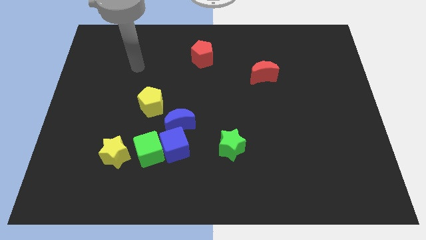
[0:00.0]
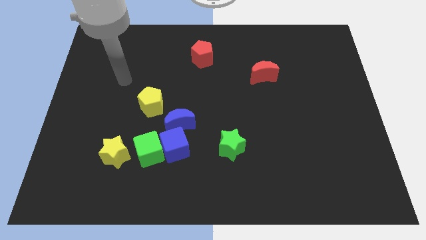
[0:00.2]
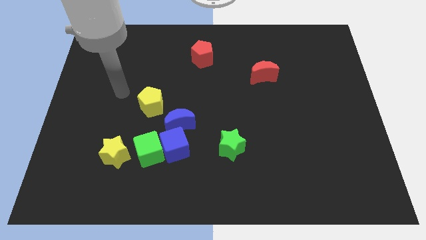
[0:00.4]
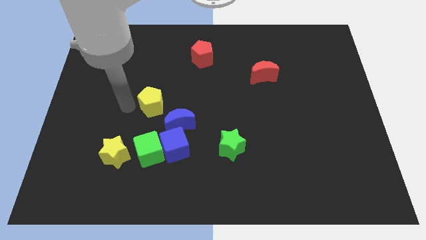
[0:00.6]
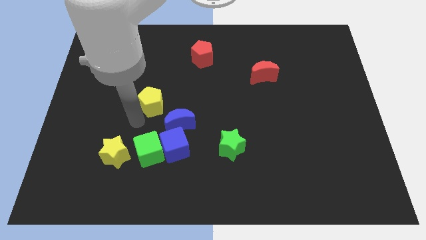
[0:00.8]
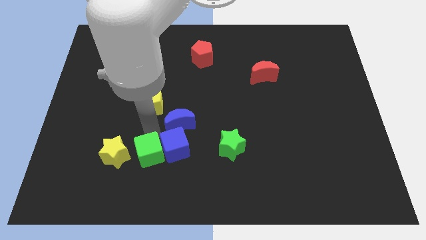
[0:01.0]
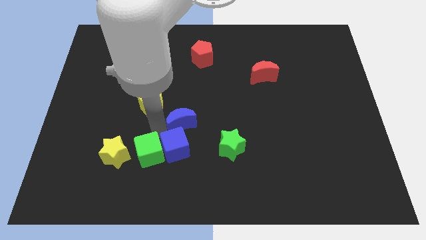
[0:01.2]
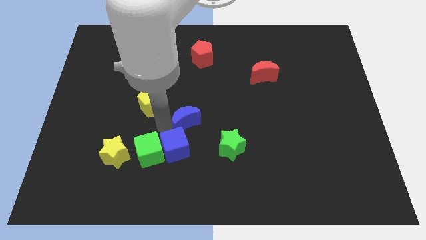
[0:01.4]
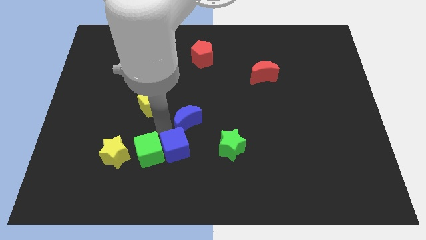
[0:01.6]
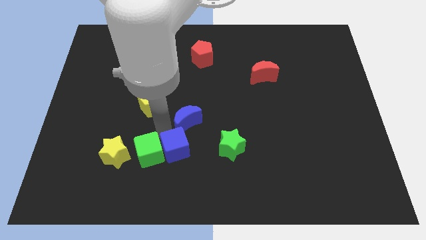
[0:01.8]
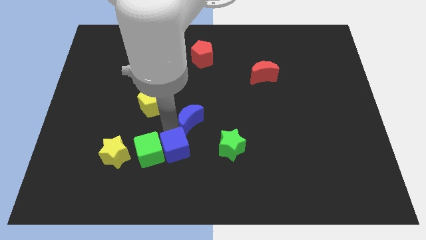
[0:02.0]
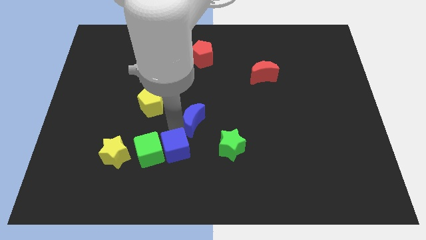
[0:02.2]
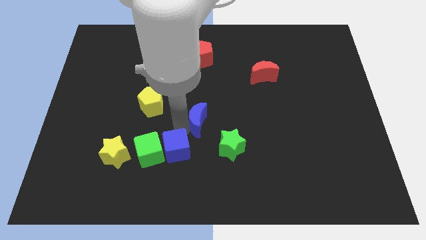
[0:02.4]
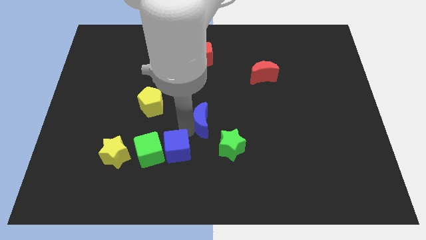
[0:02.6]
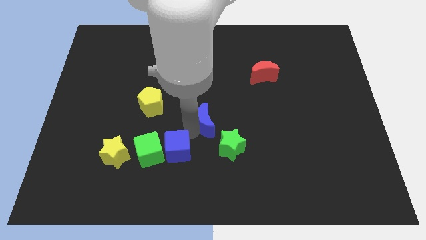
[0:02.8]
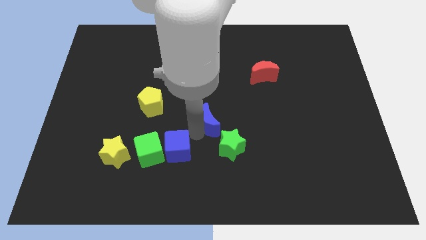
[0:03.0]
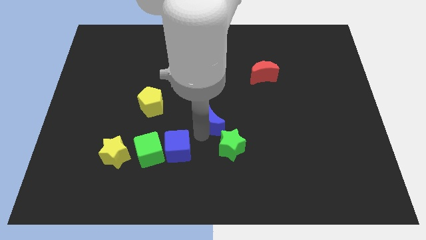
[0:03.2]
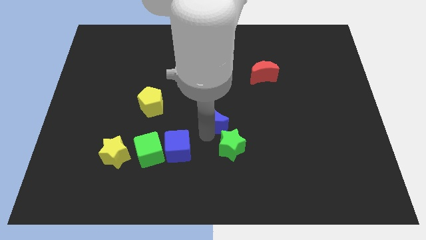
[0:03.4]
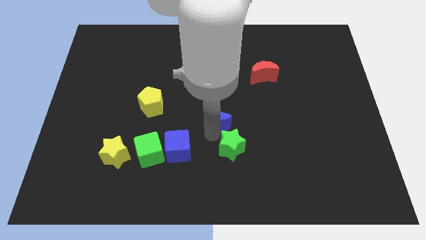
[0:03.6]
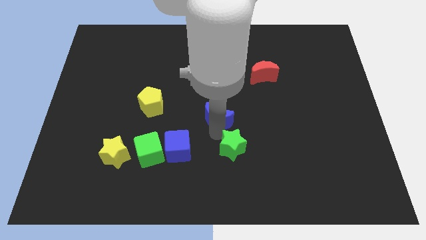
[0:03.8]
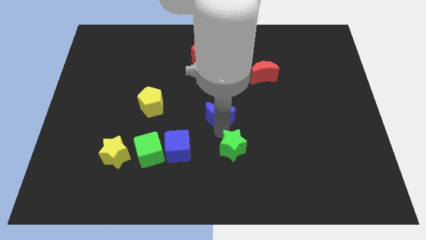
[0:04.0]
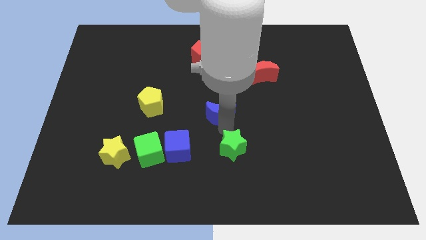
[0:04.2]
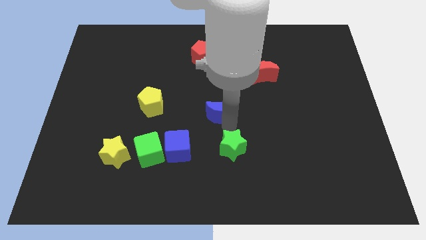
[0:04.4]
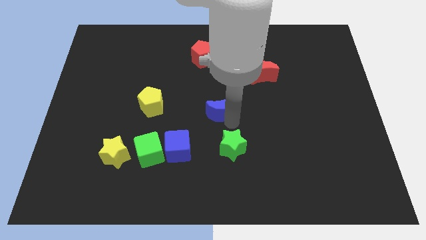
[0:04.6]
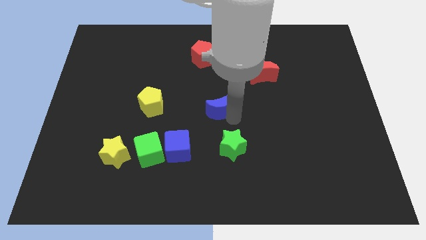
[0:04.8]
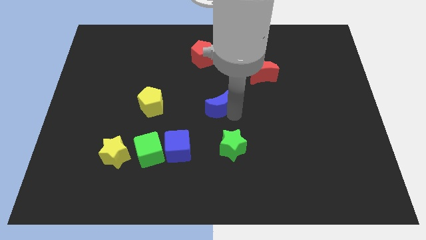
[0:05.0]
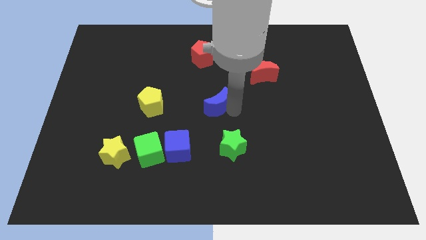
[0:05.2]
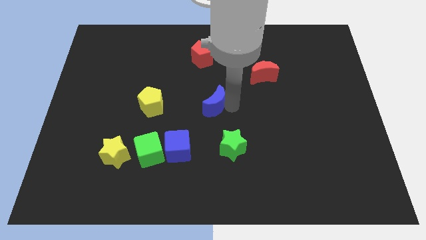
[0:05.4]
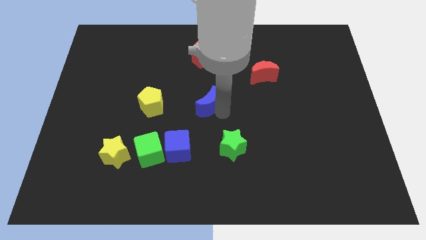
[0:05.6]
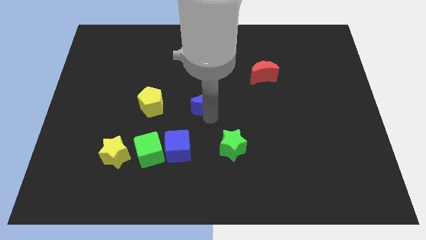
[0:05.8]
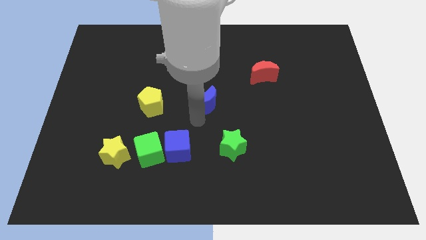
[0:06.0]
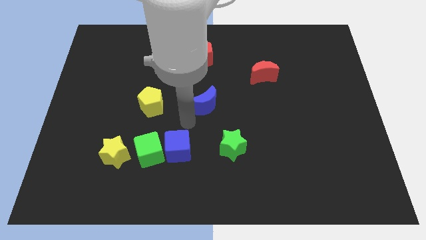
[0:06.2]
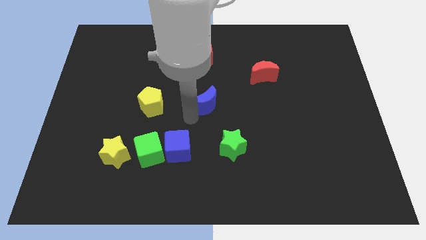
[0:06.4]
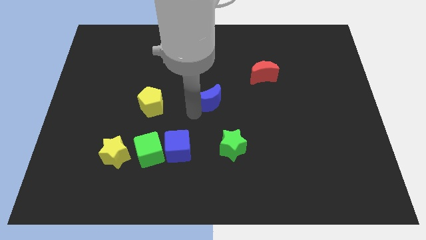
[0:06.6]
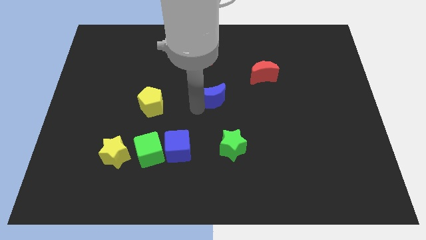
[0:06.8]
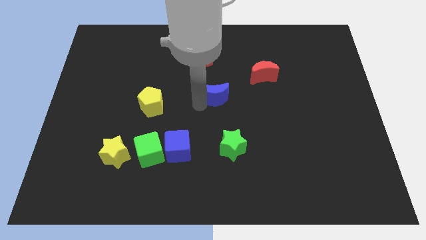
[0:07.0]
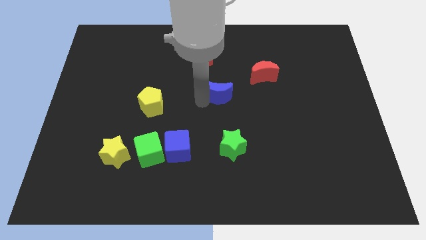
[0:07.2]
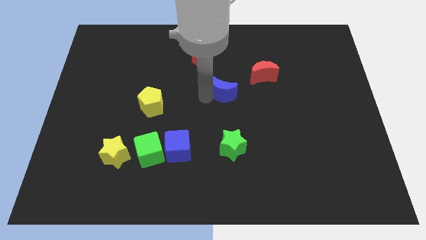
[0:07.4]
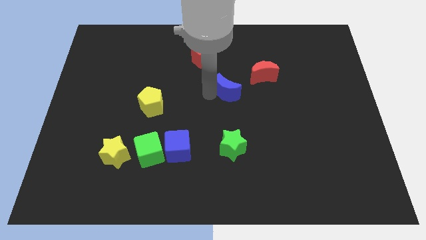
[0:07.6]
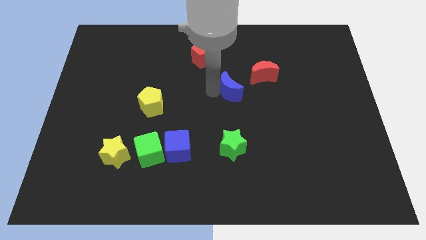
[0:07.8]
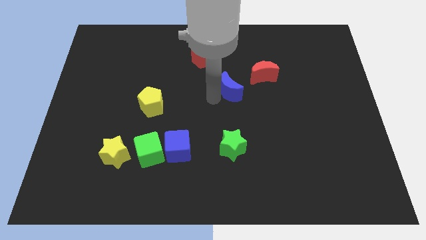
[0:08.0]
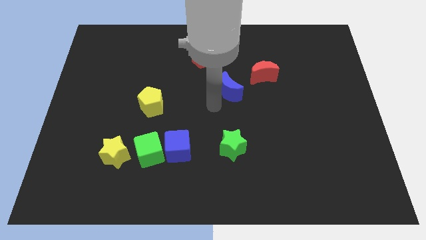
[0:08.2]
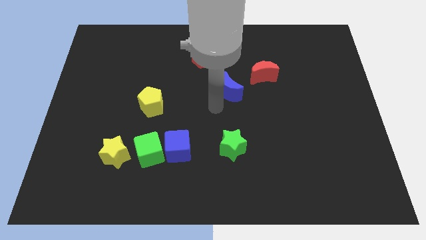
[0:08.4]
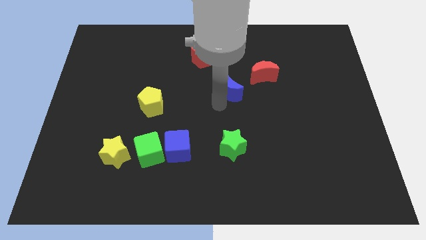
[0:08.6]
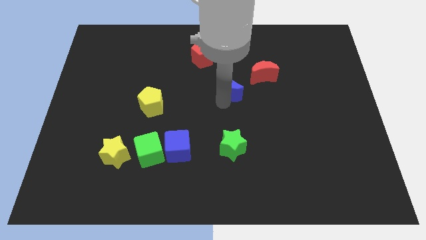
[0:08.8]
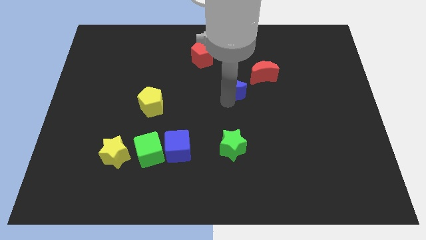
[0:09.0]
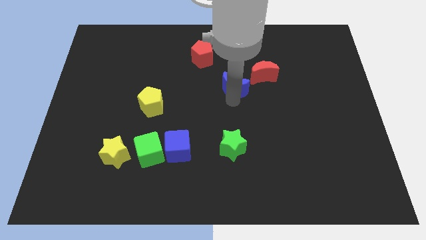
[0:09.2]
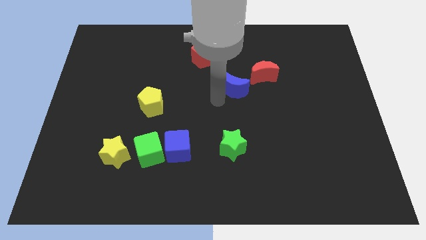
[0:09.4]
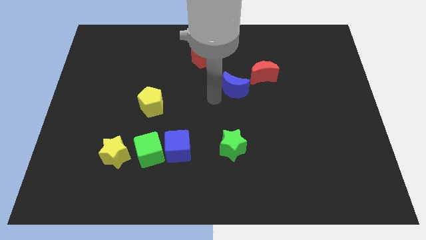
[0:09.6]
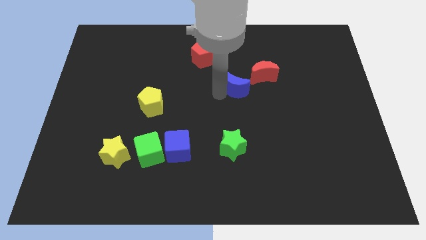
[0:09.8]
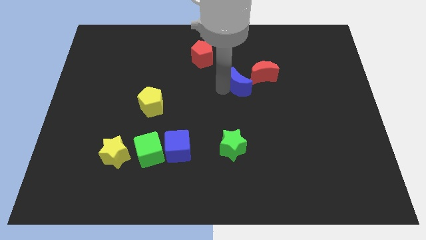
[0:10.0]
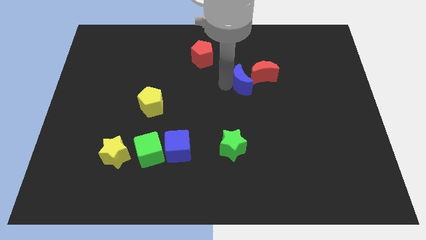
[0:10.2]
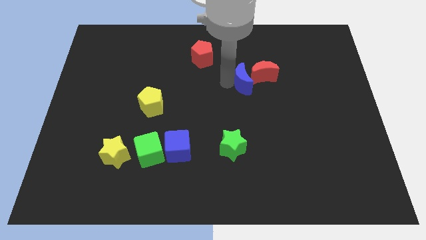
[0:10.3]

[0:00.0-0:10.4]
move the blue moon close to the red moon

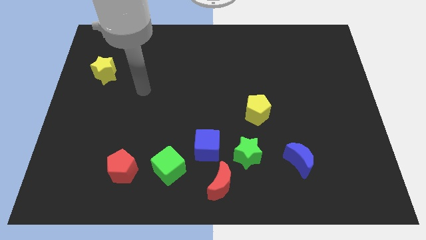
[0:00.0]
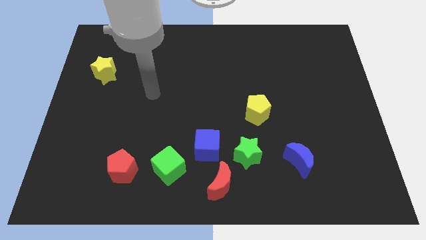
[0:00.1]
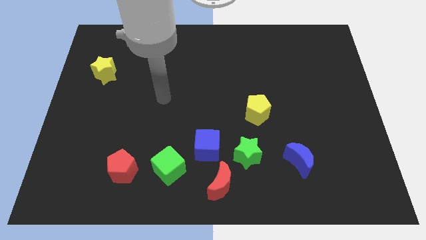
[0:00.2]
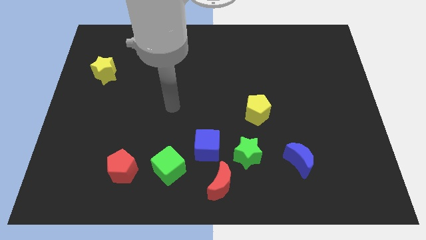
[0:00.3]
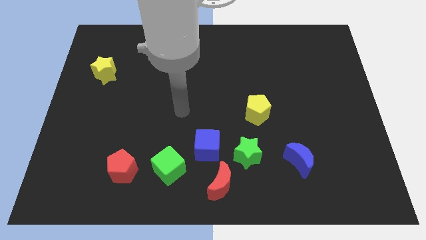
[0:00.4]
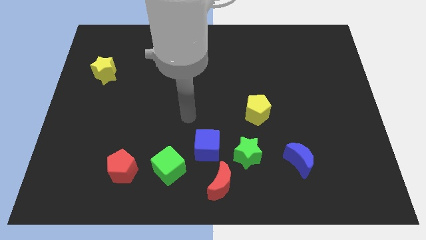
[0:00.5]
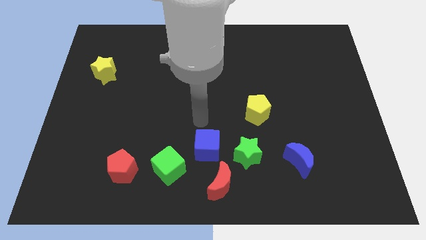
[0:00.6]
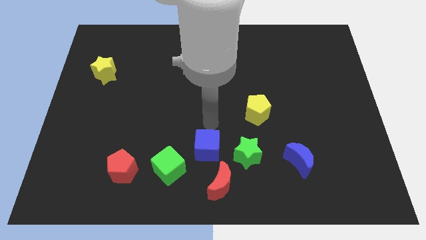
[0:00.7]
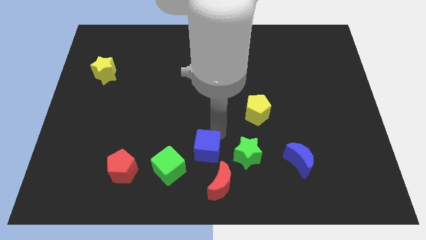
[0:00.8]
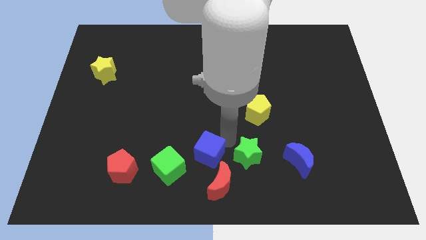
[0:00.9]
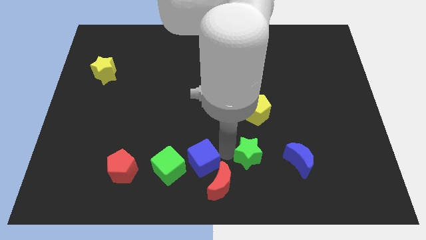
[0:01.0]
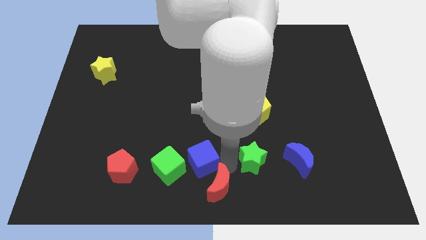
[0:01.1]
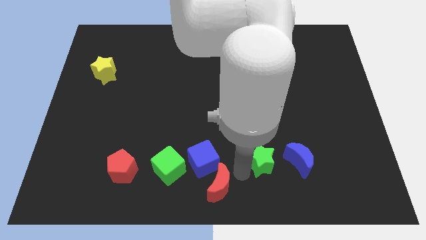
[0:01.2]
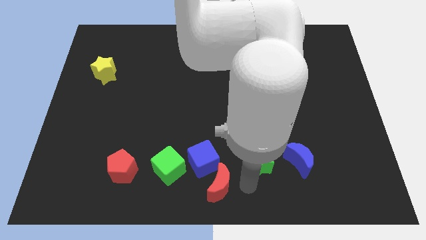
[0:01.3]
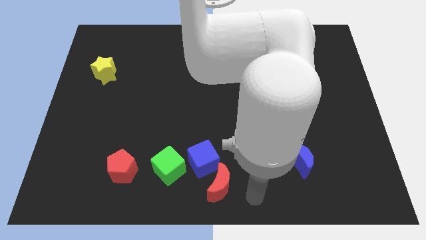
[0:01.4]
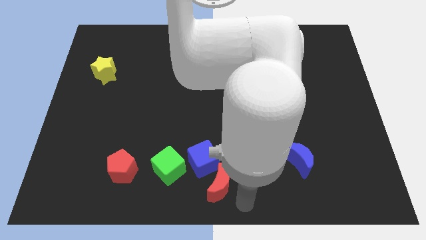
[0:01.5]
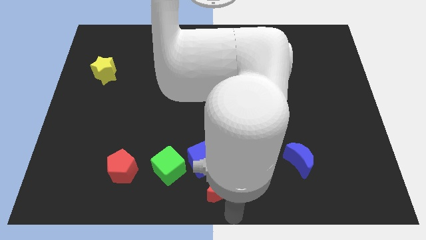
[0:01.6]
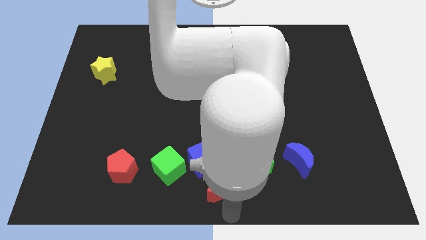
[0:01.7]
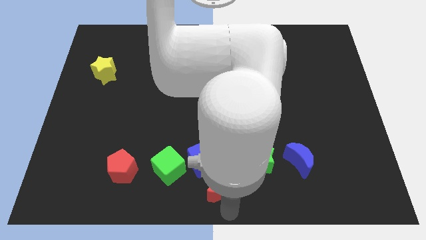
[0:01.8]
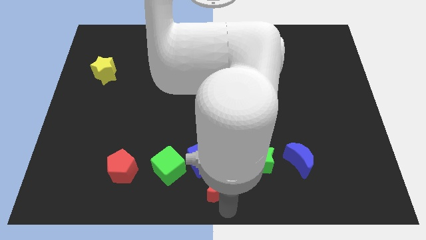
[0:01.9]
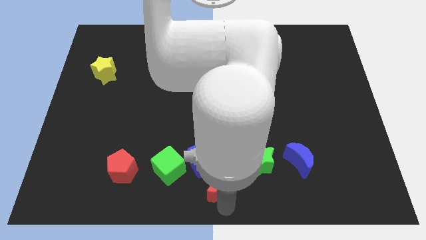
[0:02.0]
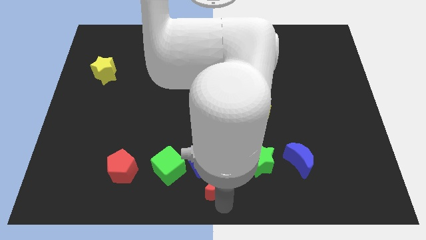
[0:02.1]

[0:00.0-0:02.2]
push the red moon next to the blue cube
